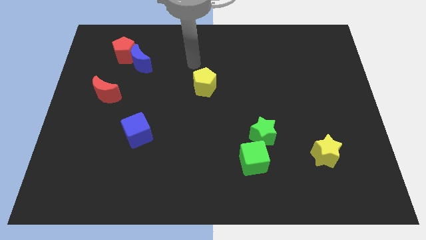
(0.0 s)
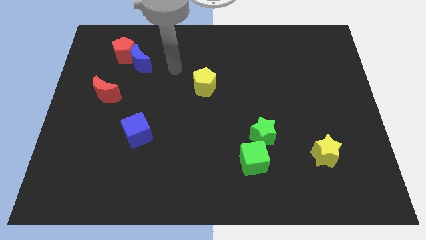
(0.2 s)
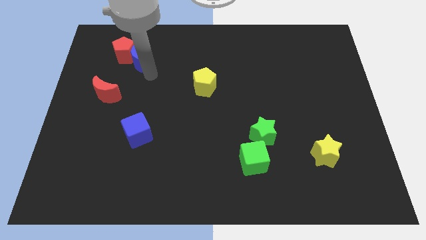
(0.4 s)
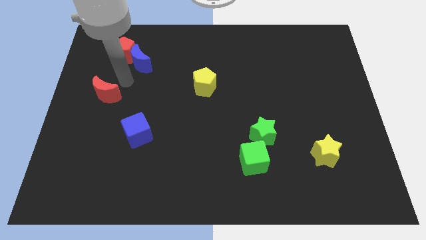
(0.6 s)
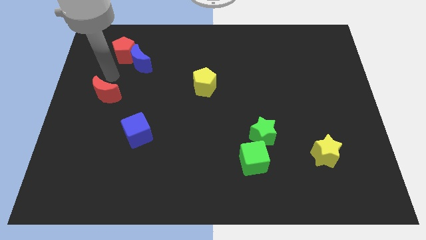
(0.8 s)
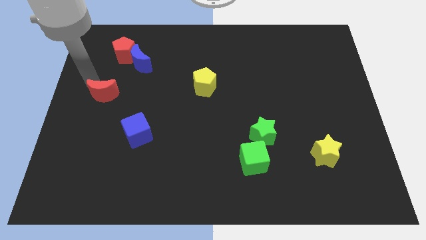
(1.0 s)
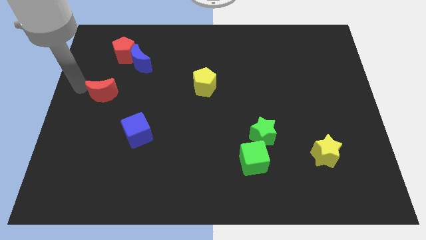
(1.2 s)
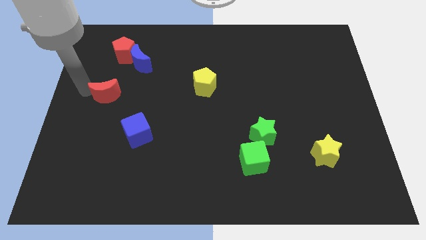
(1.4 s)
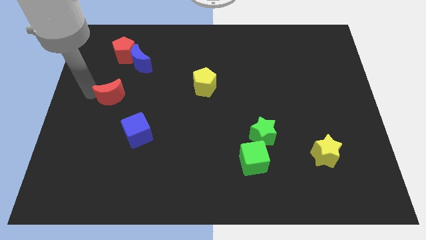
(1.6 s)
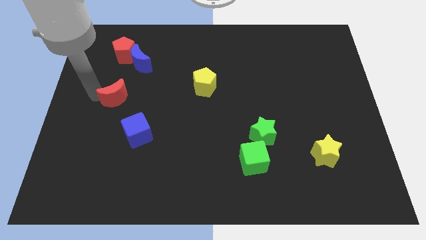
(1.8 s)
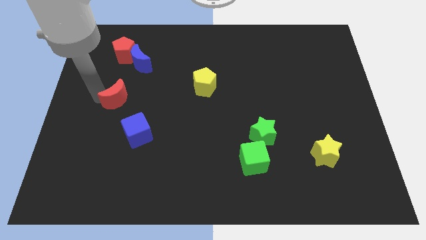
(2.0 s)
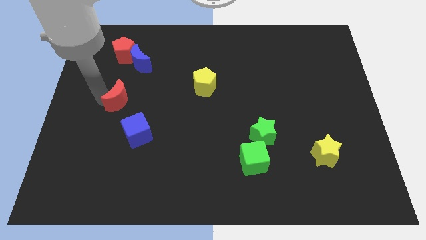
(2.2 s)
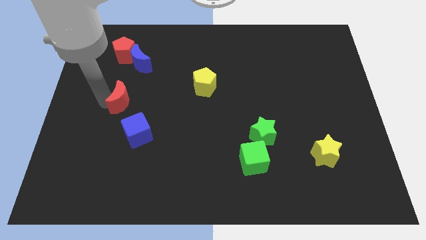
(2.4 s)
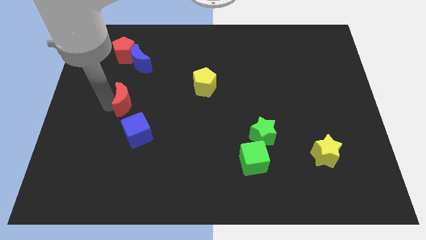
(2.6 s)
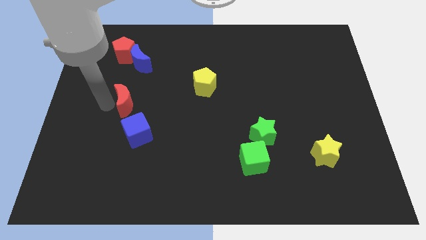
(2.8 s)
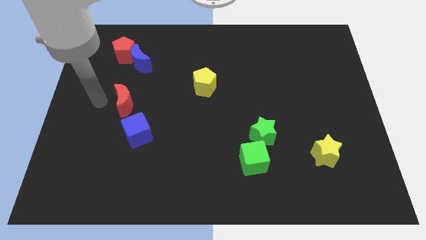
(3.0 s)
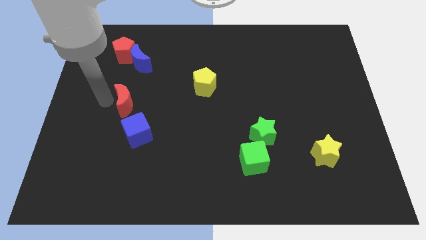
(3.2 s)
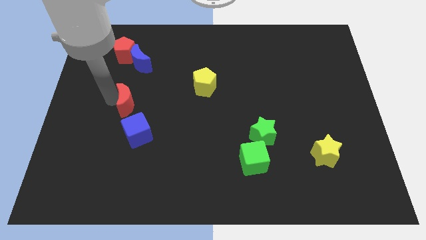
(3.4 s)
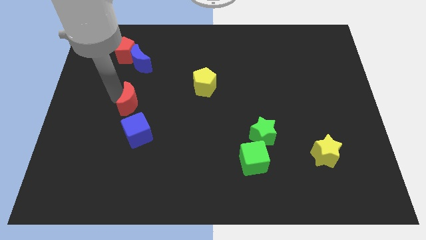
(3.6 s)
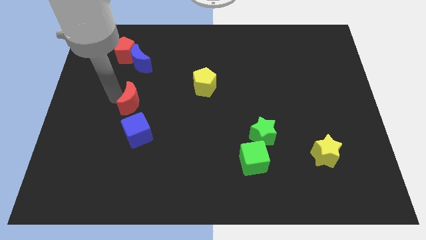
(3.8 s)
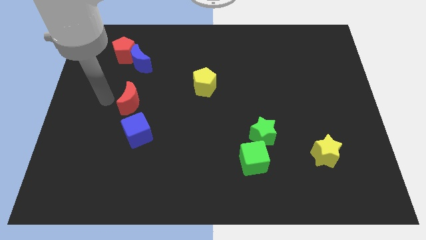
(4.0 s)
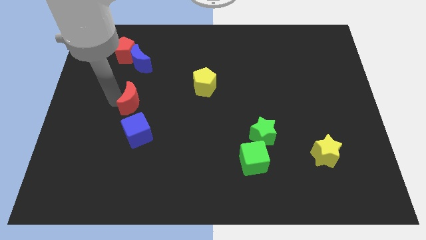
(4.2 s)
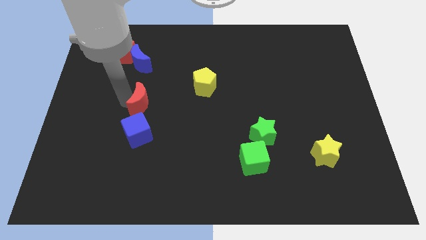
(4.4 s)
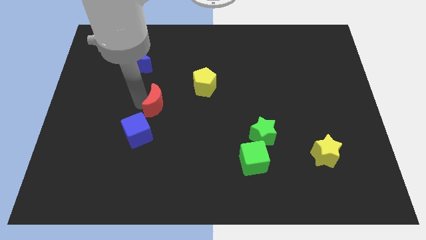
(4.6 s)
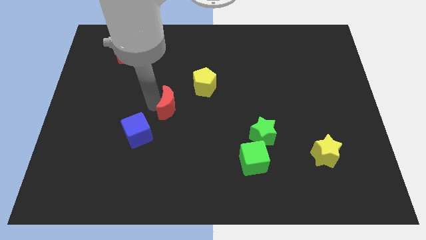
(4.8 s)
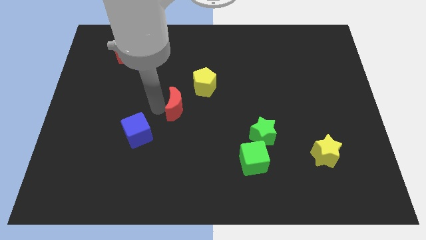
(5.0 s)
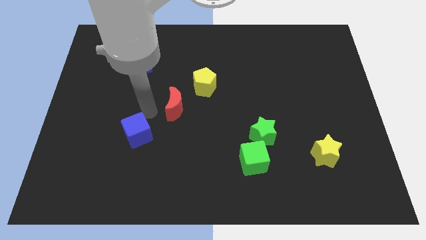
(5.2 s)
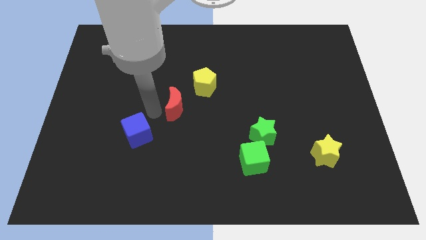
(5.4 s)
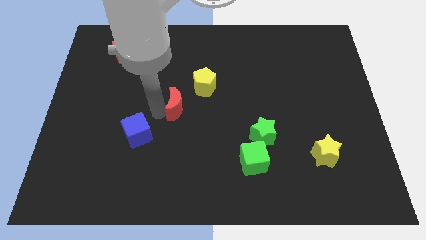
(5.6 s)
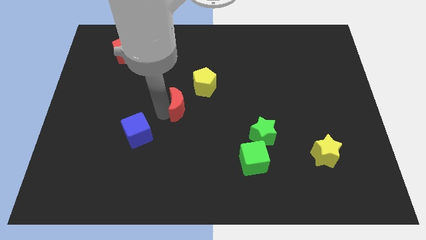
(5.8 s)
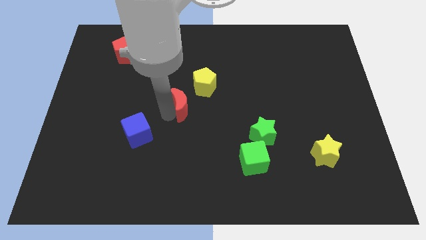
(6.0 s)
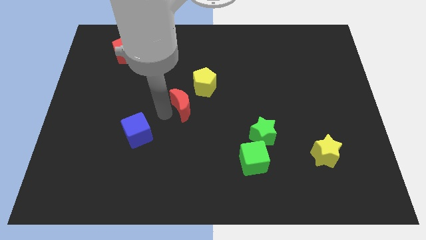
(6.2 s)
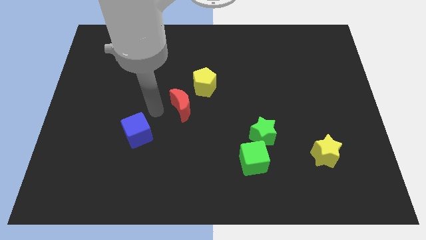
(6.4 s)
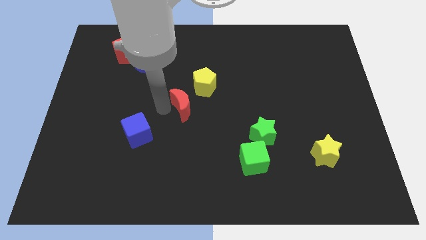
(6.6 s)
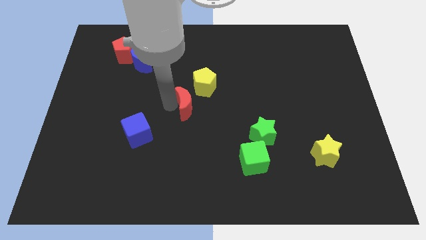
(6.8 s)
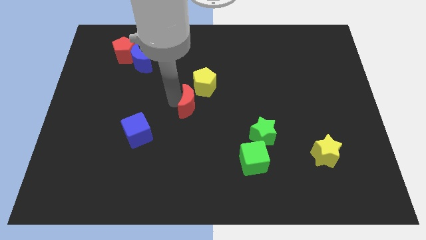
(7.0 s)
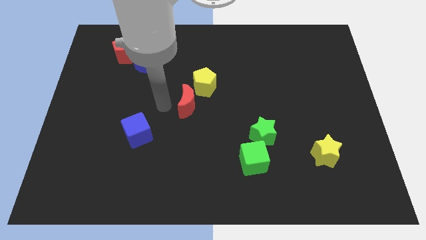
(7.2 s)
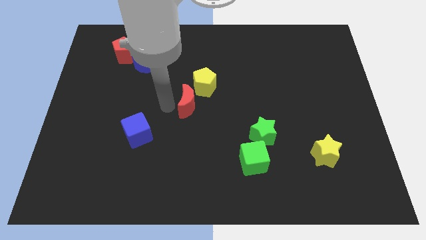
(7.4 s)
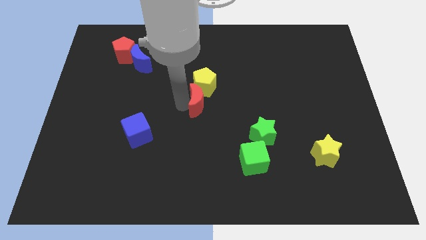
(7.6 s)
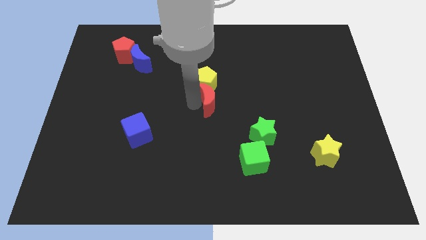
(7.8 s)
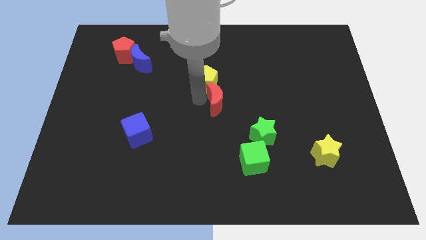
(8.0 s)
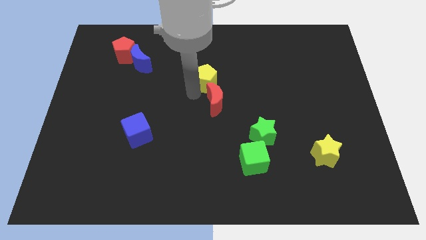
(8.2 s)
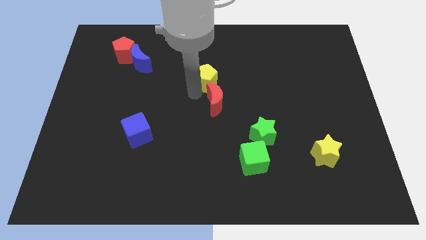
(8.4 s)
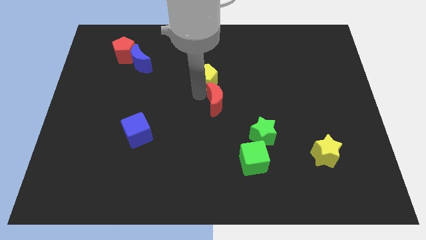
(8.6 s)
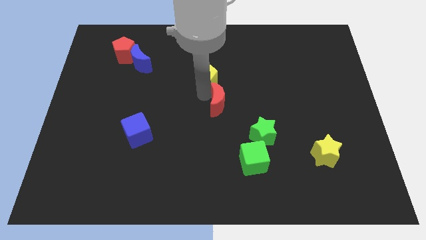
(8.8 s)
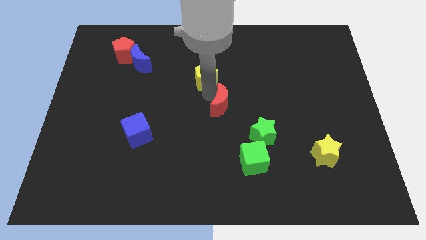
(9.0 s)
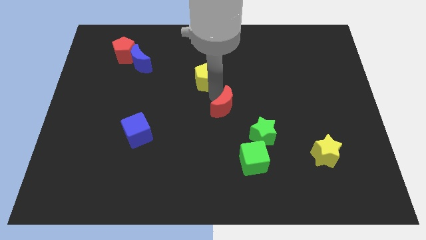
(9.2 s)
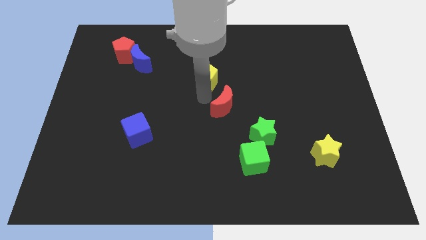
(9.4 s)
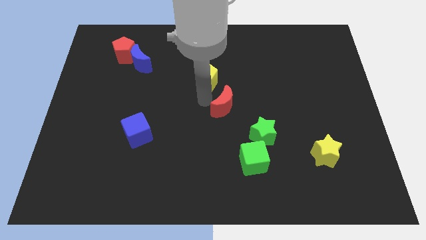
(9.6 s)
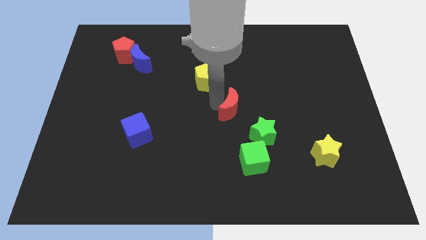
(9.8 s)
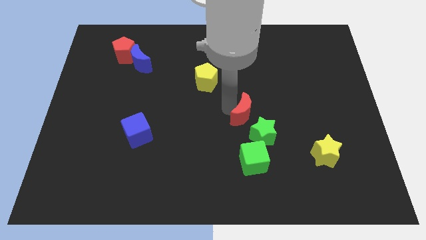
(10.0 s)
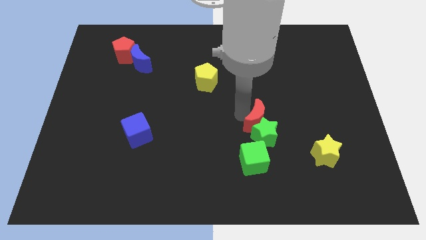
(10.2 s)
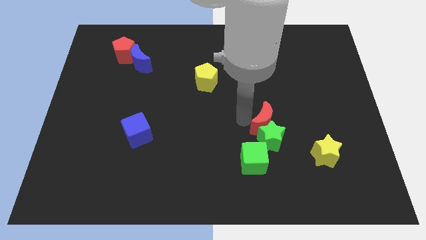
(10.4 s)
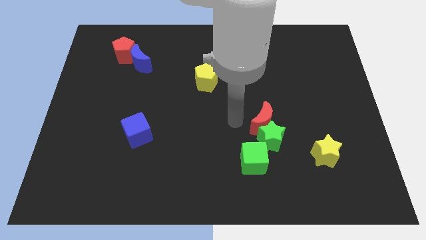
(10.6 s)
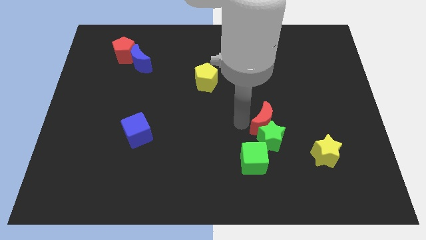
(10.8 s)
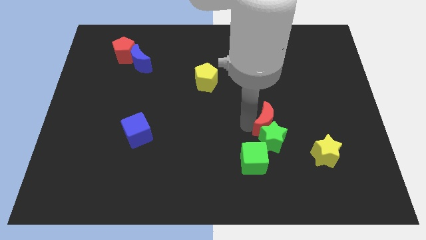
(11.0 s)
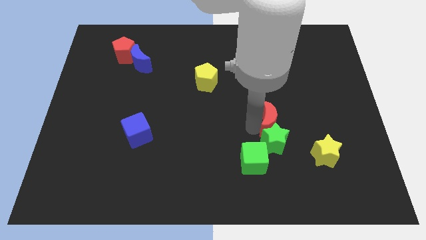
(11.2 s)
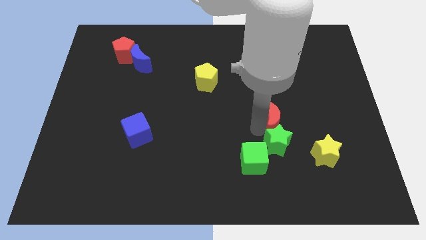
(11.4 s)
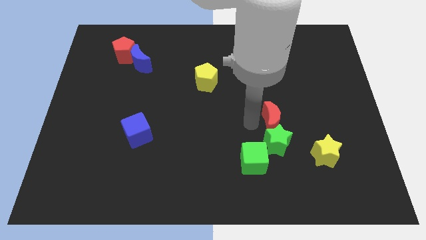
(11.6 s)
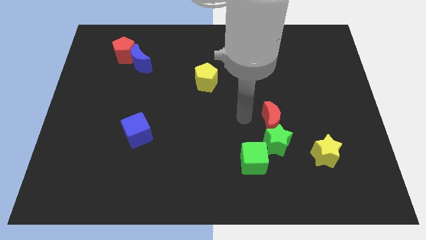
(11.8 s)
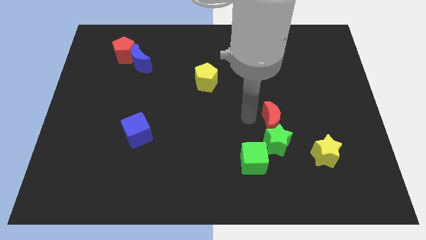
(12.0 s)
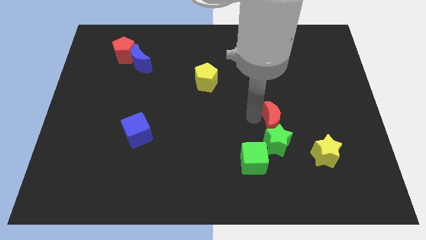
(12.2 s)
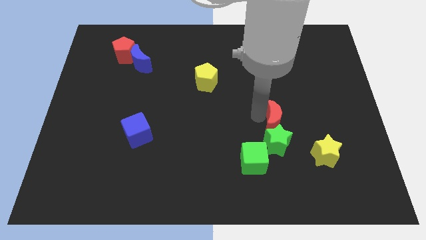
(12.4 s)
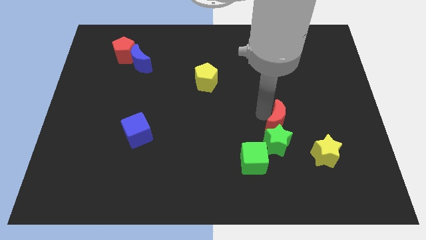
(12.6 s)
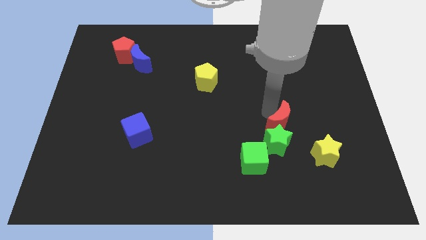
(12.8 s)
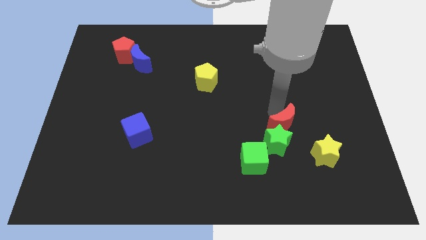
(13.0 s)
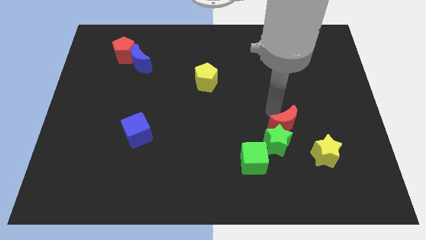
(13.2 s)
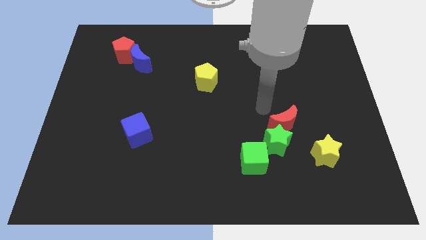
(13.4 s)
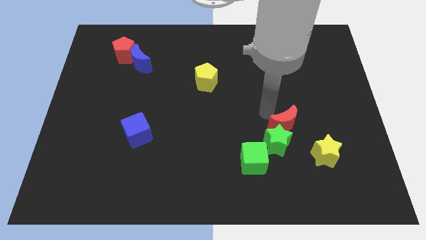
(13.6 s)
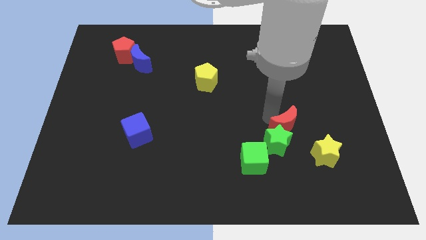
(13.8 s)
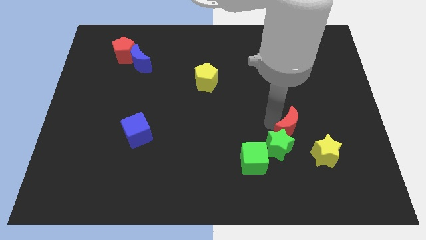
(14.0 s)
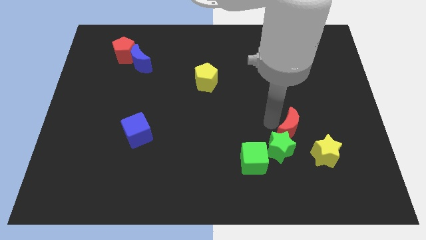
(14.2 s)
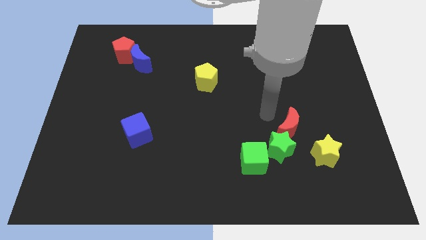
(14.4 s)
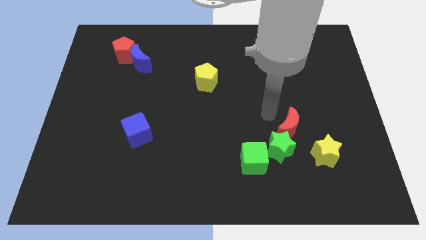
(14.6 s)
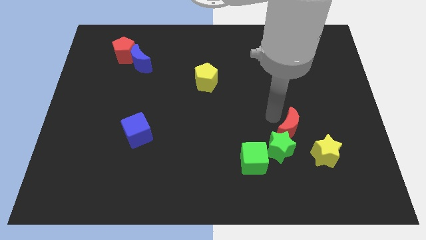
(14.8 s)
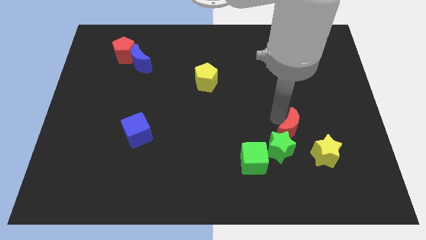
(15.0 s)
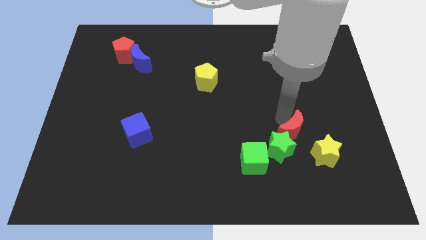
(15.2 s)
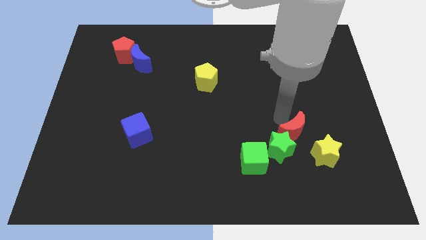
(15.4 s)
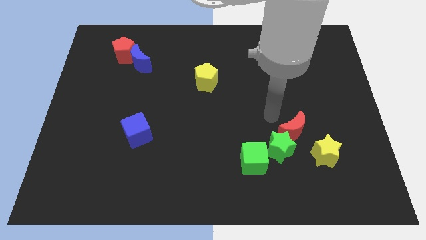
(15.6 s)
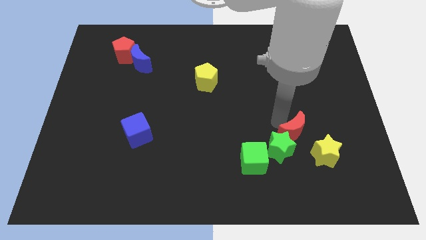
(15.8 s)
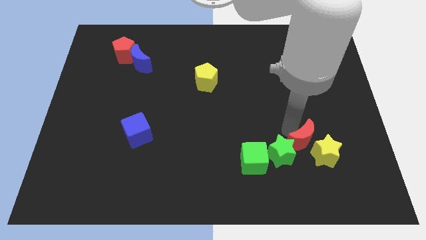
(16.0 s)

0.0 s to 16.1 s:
push the red moon to the yellow star
